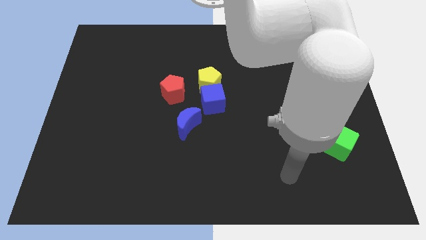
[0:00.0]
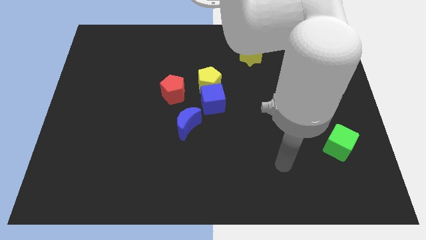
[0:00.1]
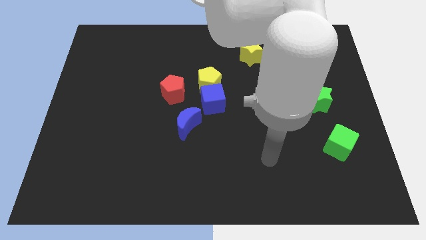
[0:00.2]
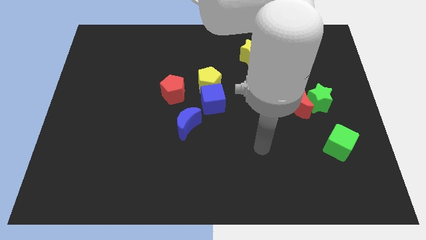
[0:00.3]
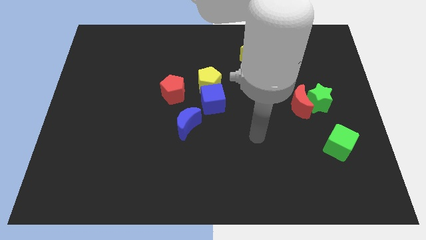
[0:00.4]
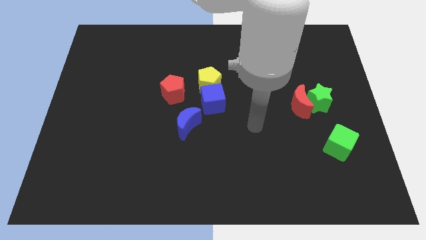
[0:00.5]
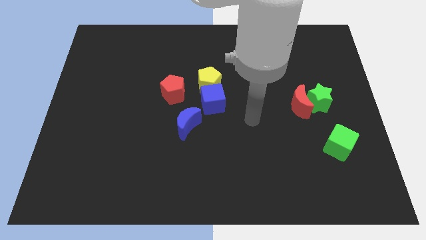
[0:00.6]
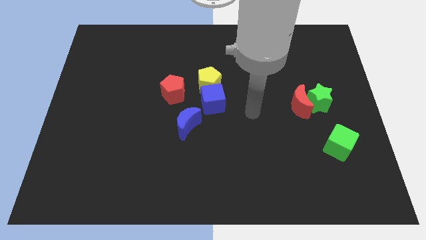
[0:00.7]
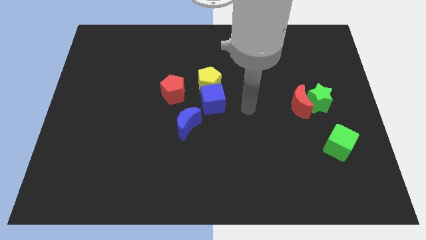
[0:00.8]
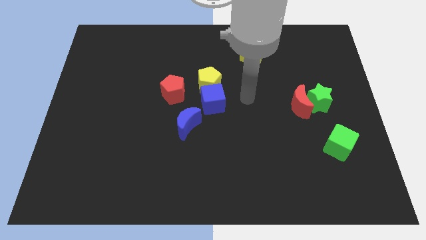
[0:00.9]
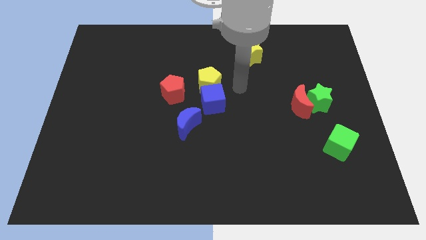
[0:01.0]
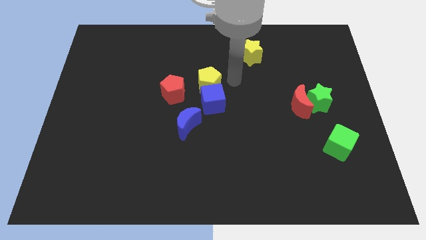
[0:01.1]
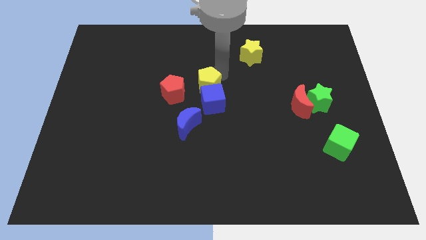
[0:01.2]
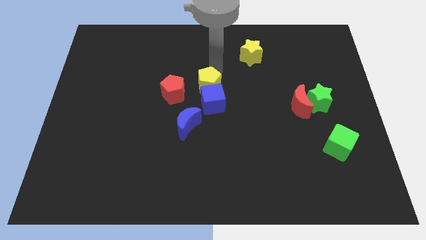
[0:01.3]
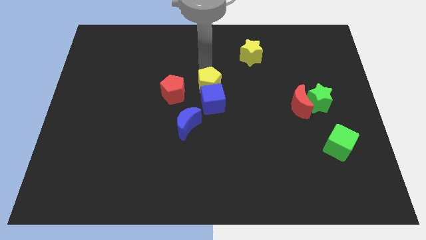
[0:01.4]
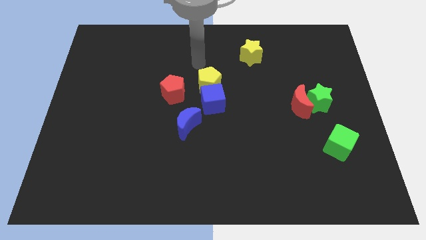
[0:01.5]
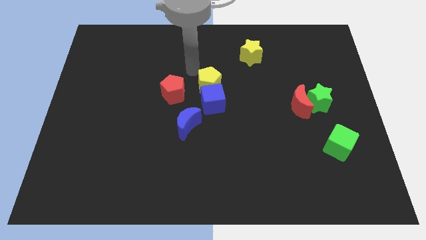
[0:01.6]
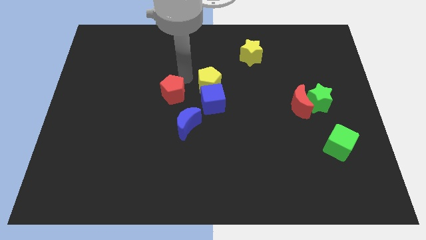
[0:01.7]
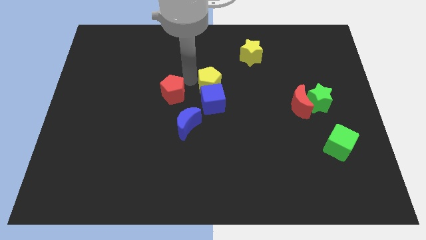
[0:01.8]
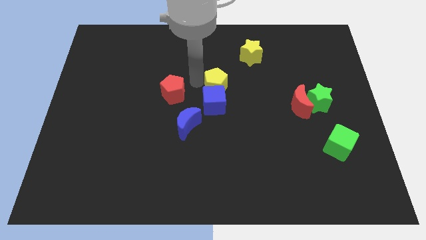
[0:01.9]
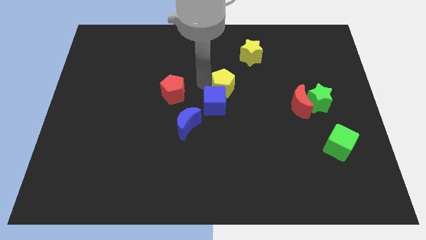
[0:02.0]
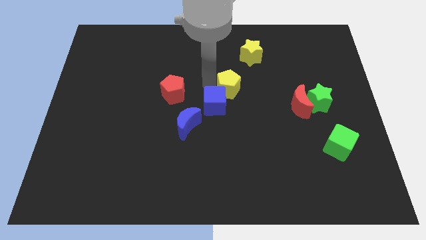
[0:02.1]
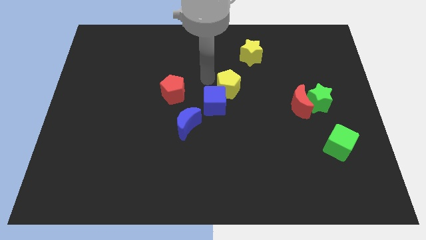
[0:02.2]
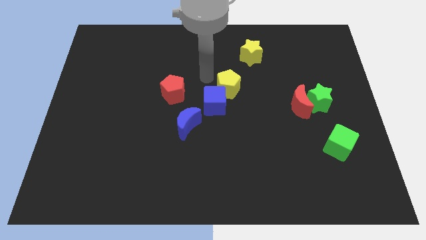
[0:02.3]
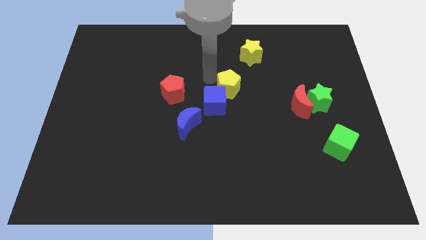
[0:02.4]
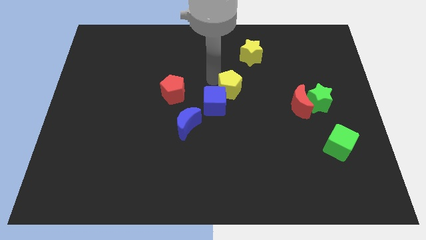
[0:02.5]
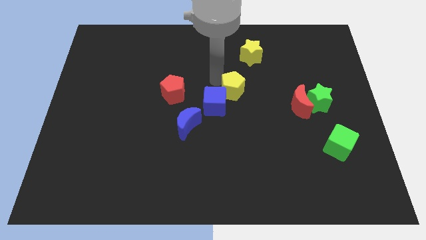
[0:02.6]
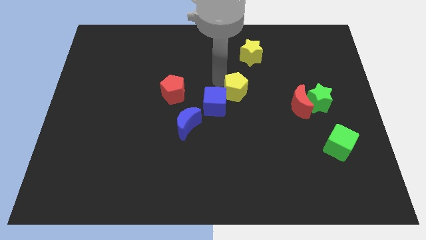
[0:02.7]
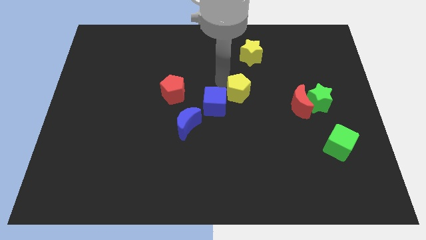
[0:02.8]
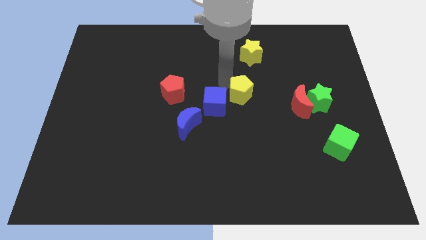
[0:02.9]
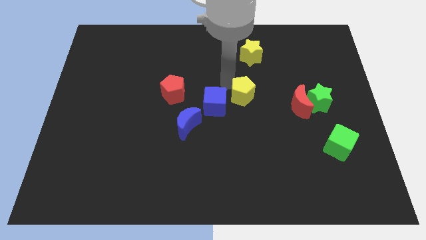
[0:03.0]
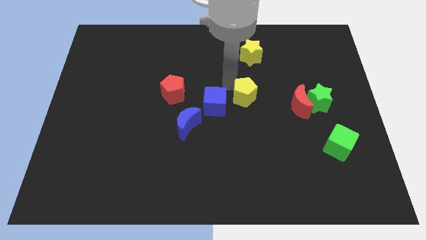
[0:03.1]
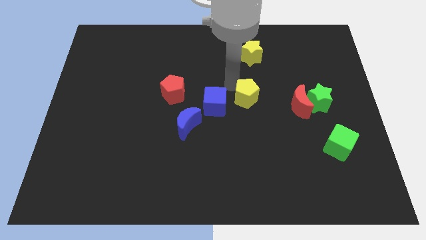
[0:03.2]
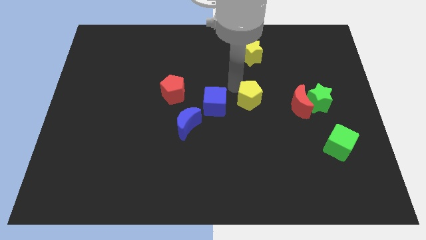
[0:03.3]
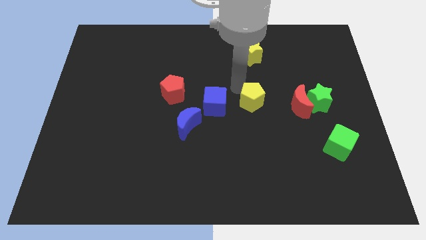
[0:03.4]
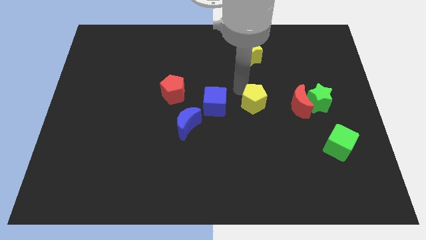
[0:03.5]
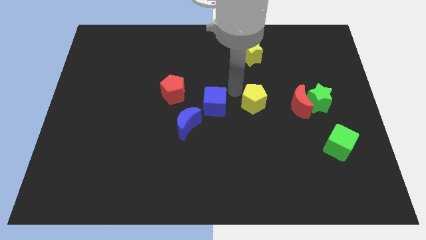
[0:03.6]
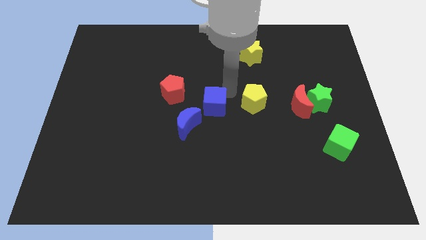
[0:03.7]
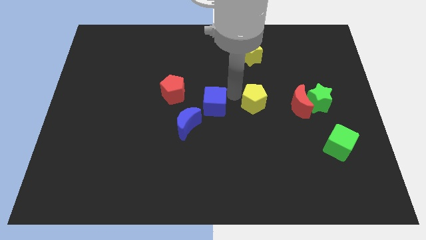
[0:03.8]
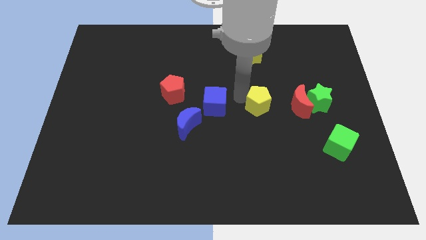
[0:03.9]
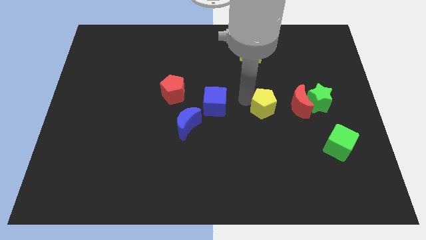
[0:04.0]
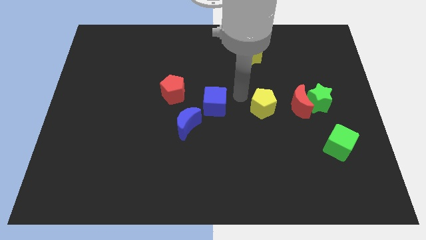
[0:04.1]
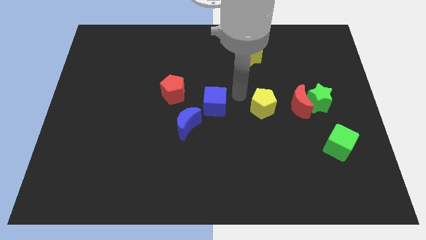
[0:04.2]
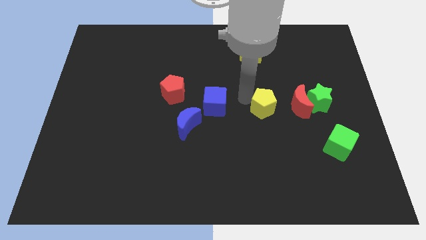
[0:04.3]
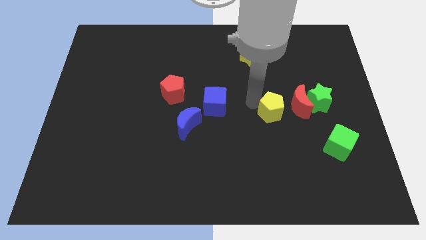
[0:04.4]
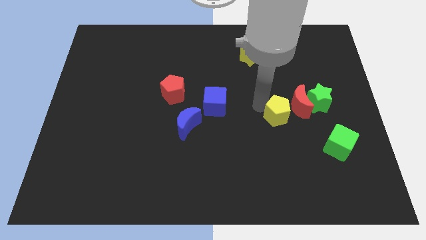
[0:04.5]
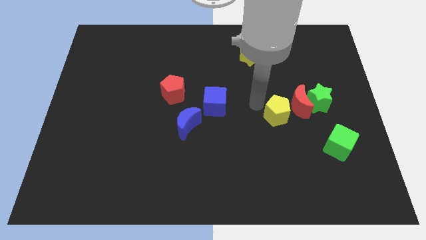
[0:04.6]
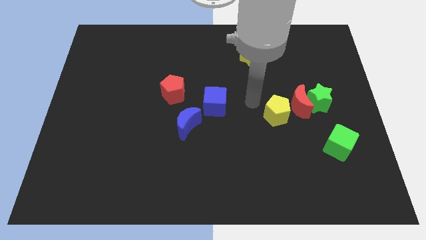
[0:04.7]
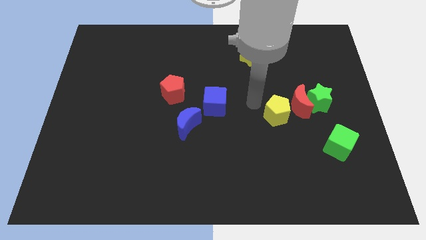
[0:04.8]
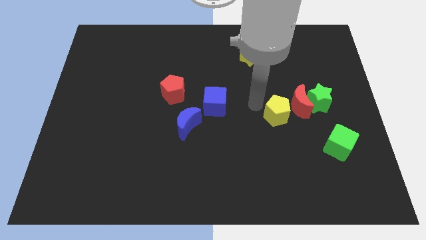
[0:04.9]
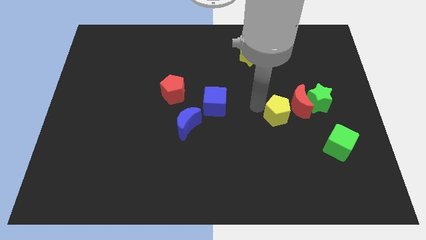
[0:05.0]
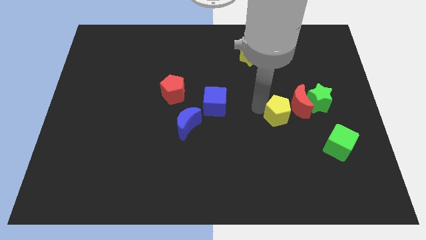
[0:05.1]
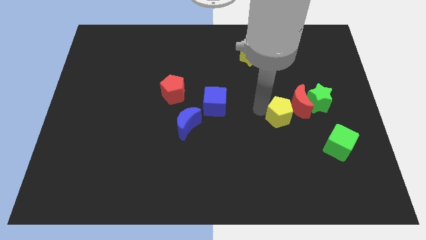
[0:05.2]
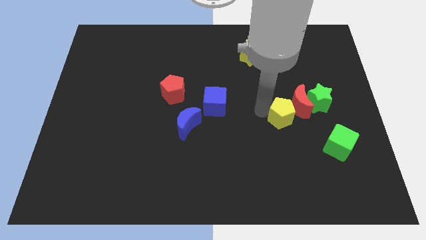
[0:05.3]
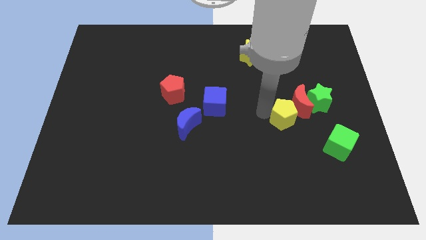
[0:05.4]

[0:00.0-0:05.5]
move the yellow pentagon to the bottom of the red moon

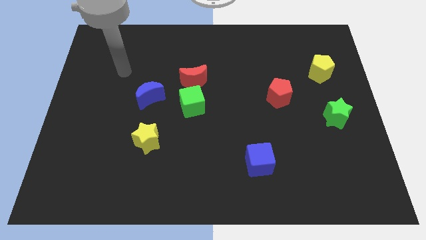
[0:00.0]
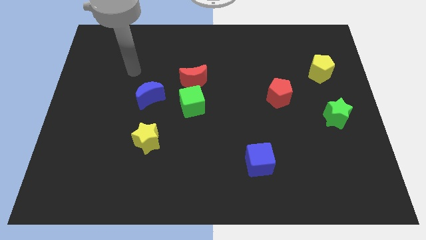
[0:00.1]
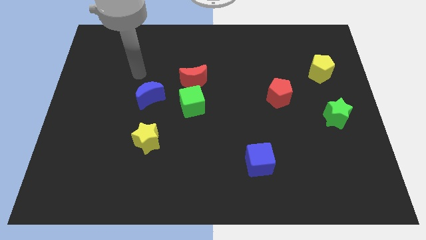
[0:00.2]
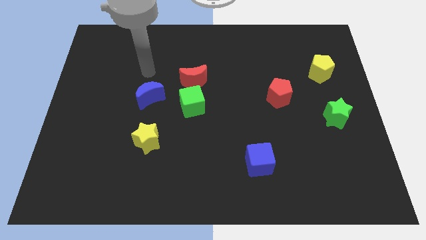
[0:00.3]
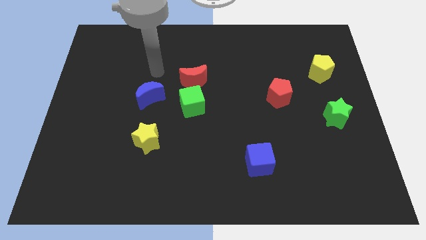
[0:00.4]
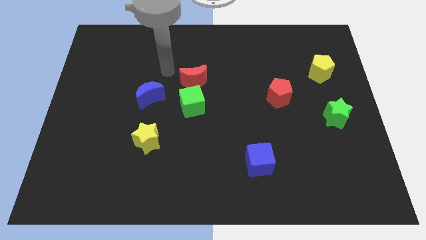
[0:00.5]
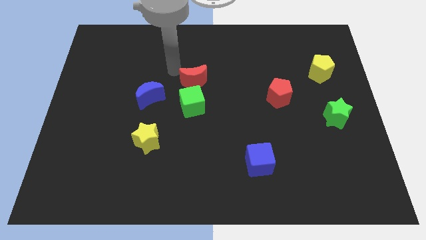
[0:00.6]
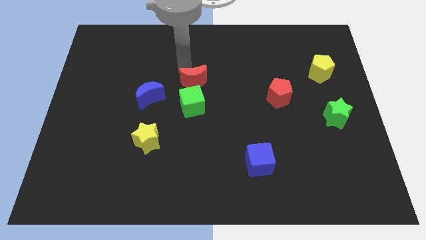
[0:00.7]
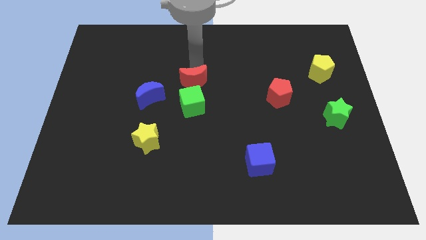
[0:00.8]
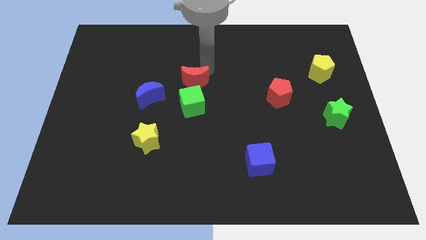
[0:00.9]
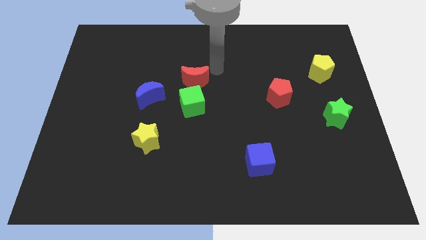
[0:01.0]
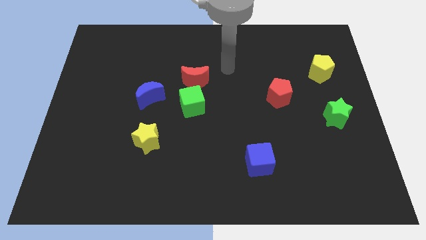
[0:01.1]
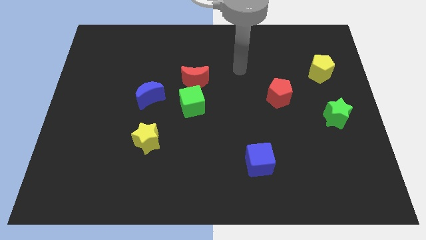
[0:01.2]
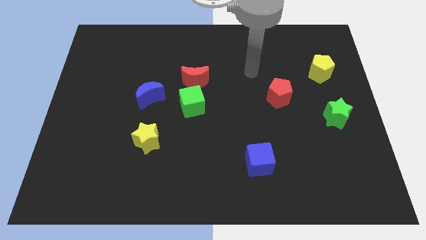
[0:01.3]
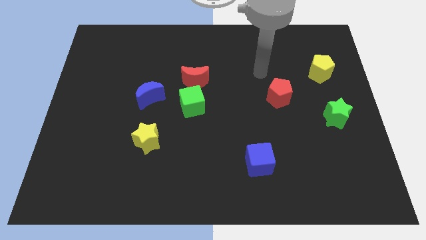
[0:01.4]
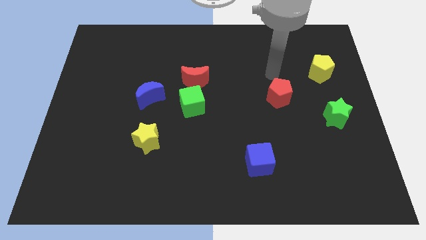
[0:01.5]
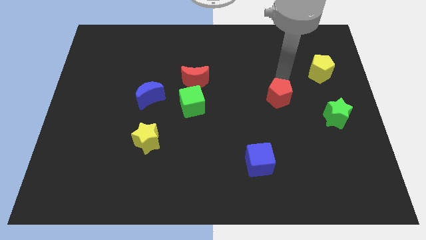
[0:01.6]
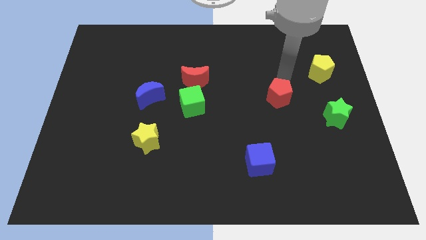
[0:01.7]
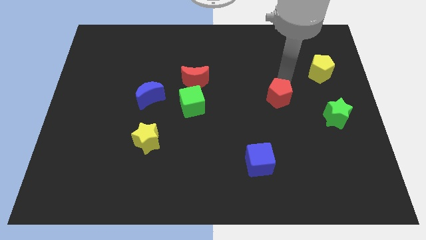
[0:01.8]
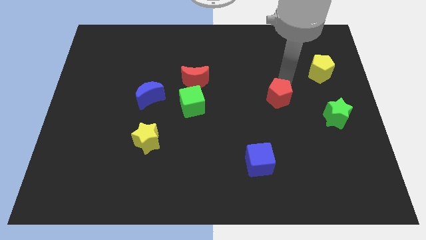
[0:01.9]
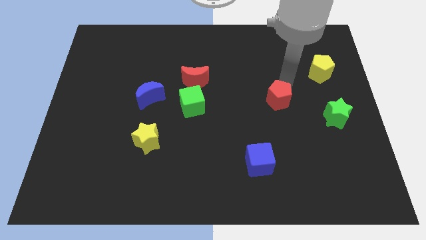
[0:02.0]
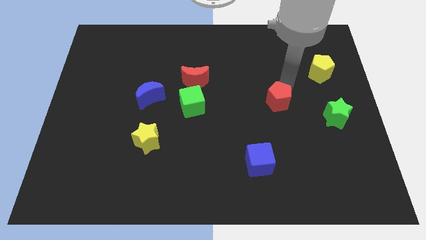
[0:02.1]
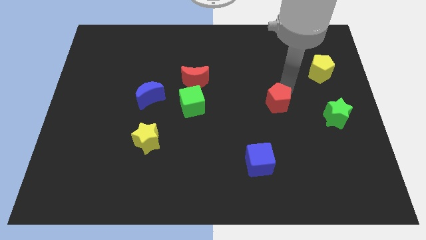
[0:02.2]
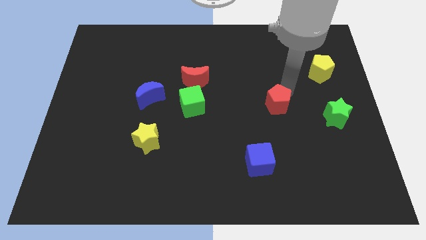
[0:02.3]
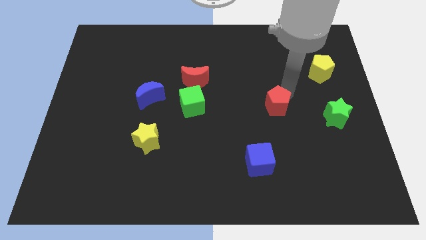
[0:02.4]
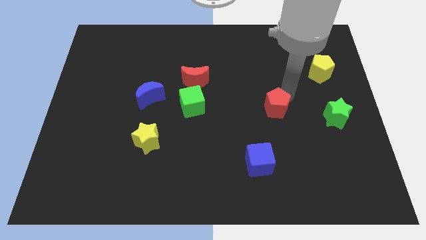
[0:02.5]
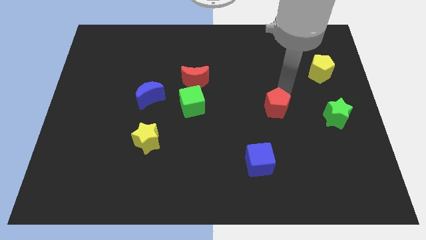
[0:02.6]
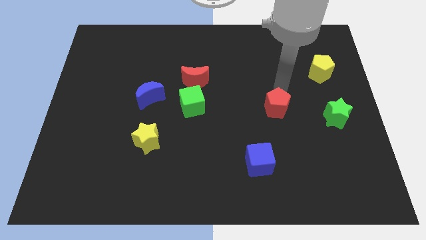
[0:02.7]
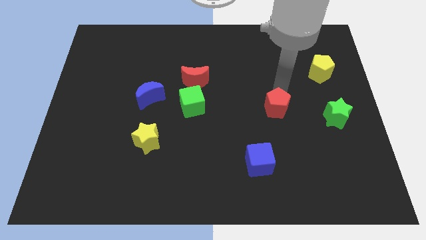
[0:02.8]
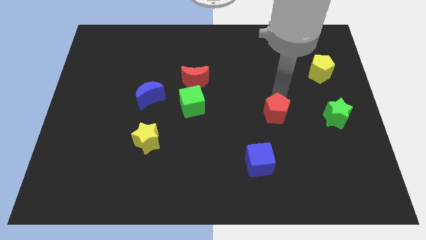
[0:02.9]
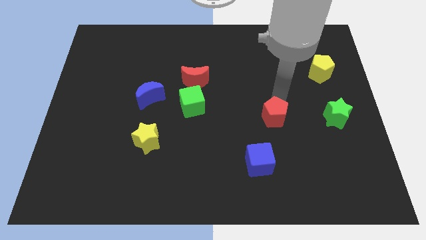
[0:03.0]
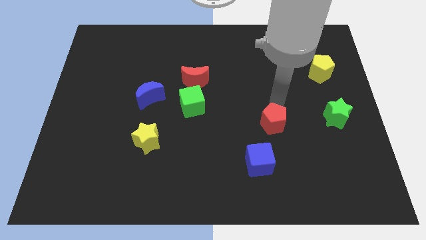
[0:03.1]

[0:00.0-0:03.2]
slide the red pentagon to the top right of the blue cube
